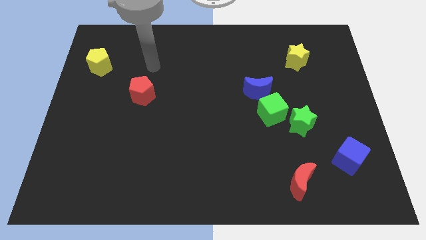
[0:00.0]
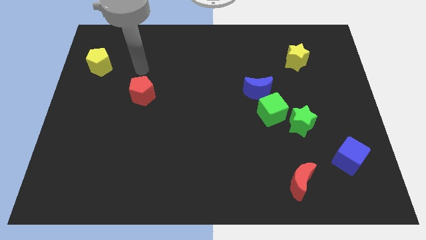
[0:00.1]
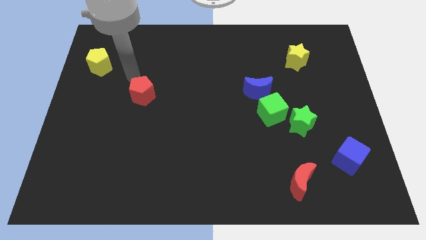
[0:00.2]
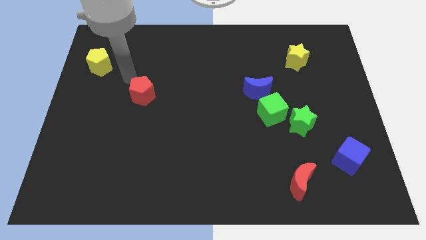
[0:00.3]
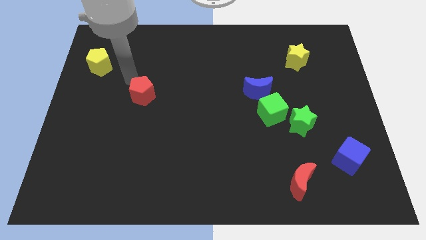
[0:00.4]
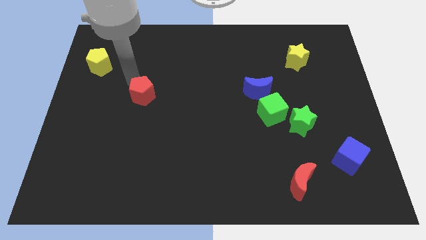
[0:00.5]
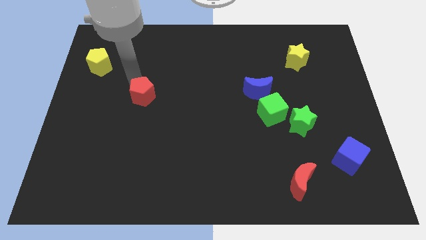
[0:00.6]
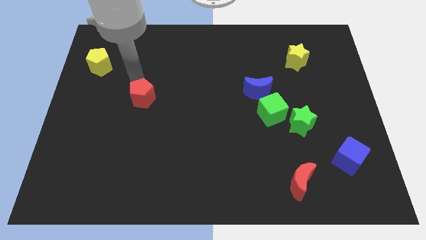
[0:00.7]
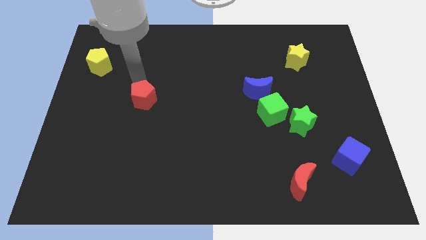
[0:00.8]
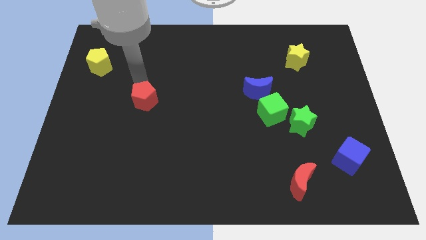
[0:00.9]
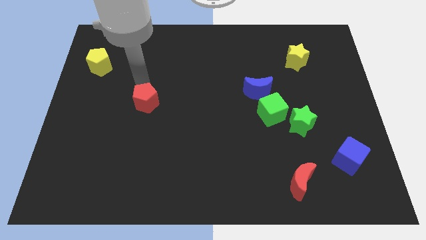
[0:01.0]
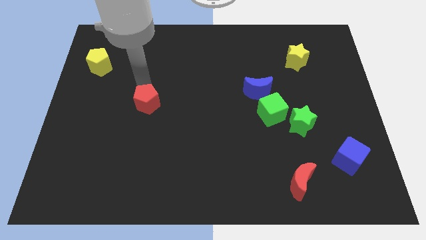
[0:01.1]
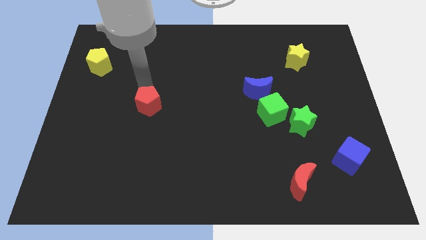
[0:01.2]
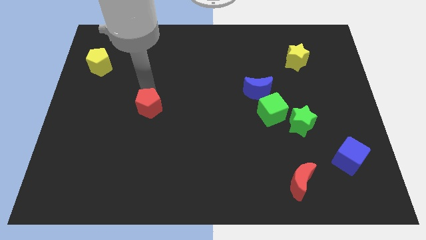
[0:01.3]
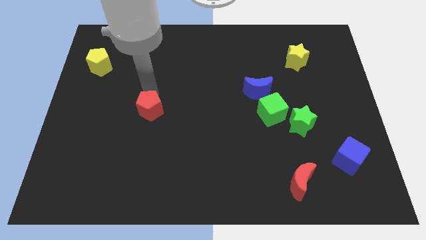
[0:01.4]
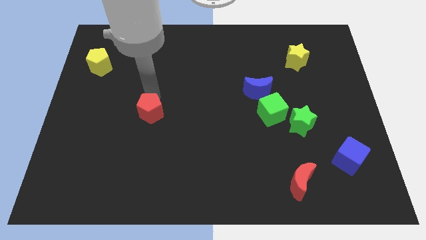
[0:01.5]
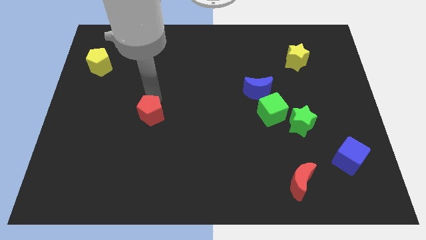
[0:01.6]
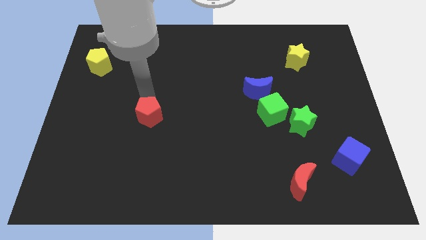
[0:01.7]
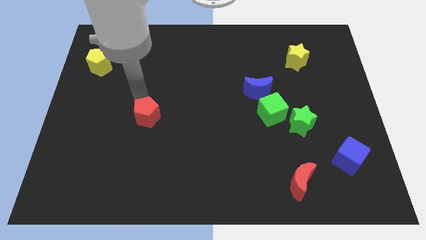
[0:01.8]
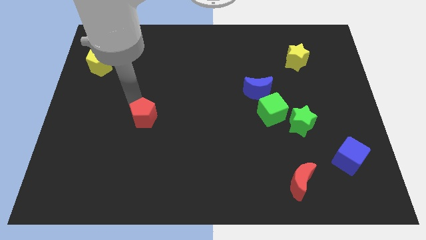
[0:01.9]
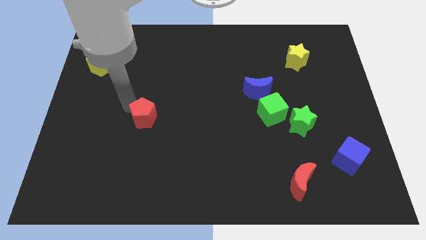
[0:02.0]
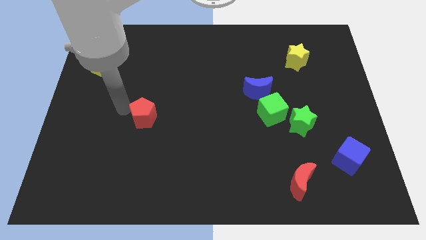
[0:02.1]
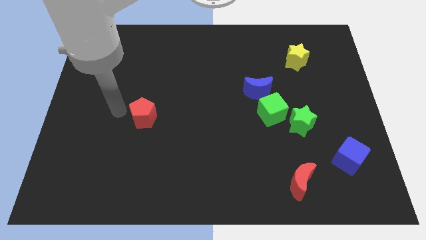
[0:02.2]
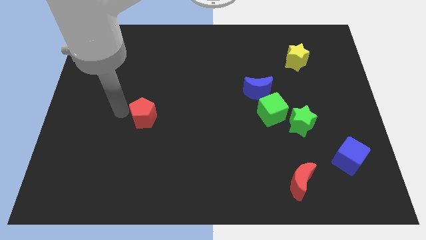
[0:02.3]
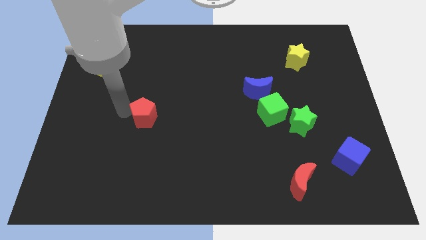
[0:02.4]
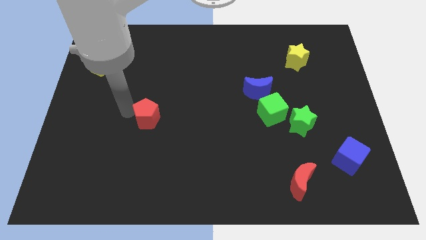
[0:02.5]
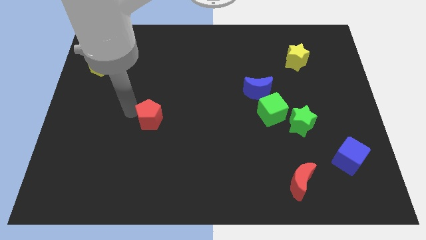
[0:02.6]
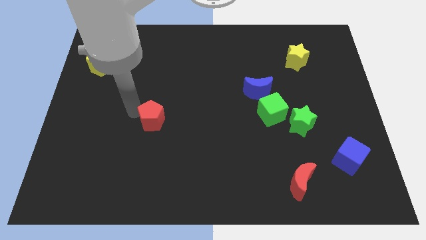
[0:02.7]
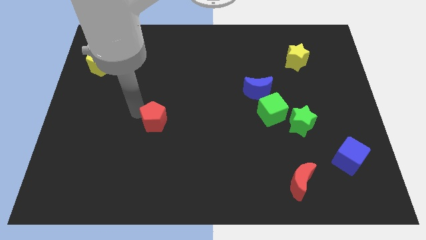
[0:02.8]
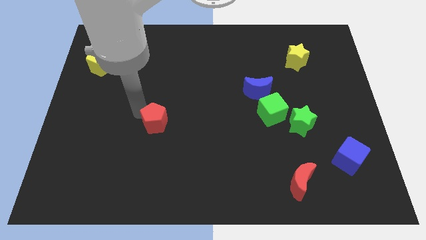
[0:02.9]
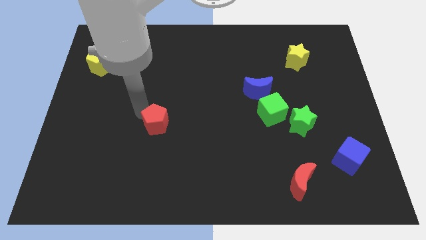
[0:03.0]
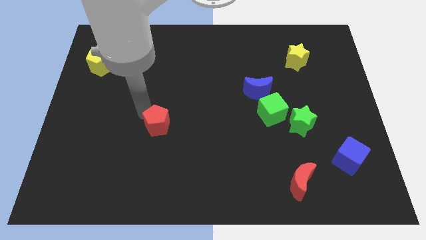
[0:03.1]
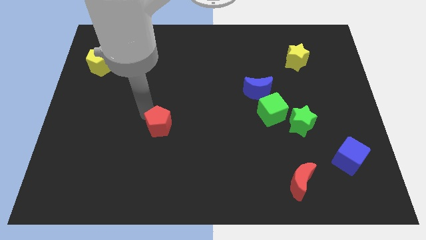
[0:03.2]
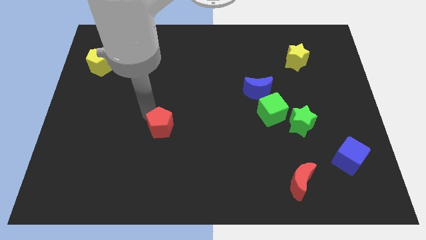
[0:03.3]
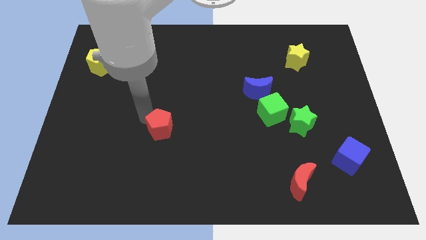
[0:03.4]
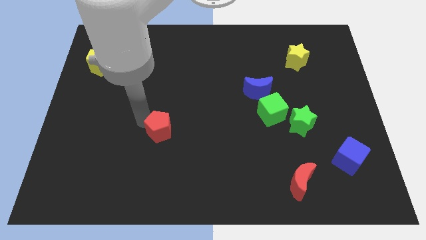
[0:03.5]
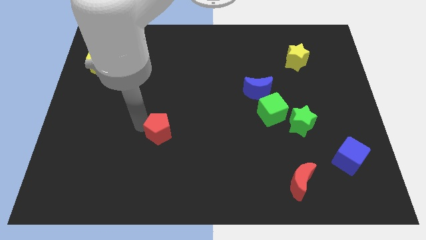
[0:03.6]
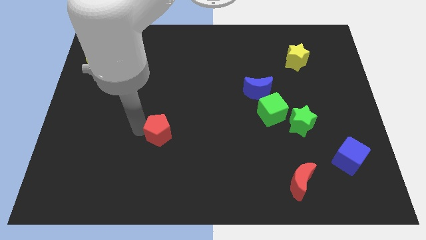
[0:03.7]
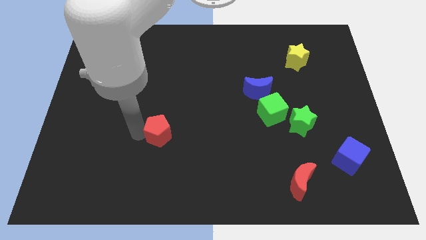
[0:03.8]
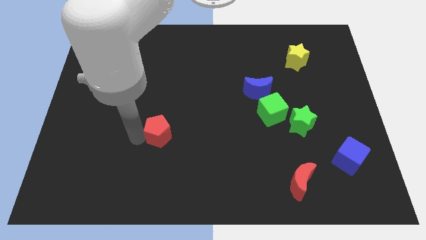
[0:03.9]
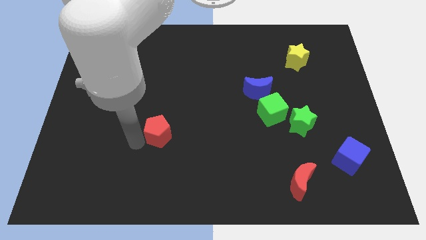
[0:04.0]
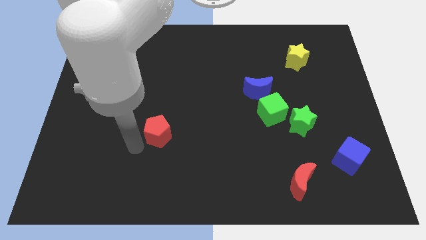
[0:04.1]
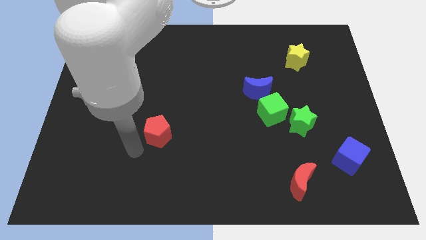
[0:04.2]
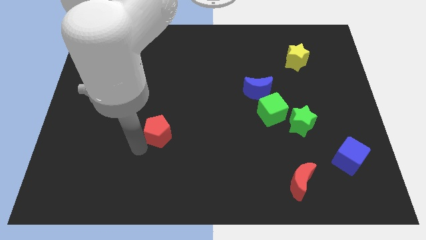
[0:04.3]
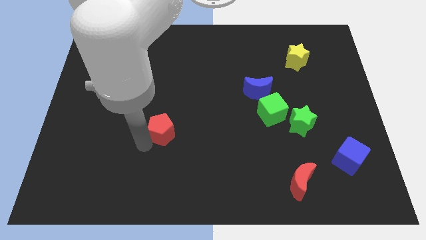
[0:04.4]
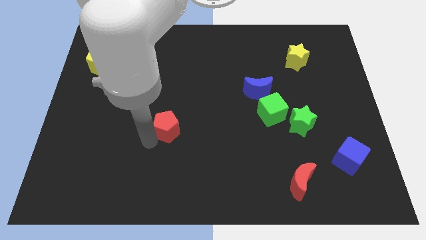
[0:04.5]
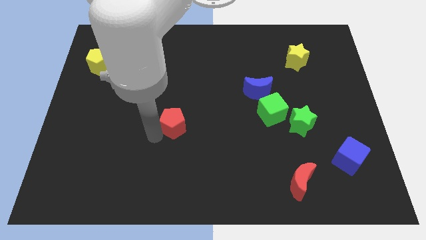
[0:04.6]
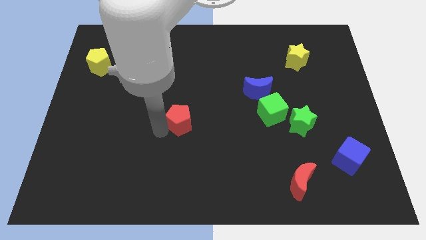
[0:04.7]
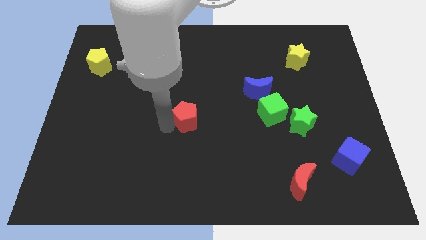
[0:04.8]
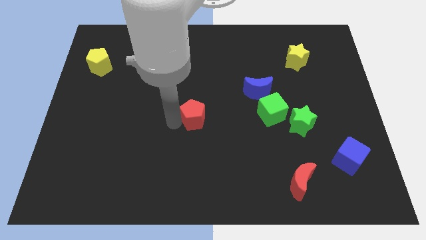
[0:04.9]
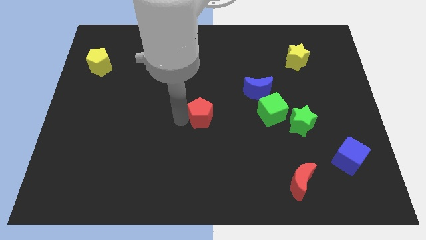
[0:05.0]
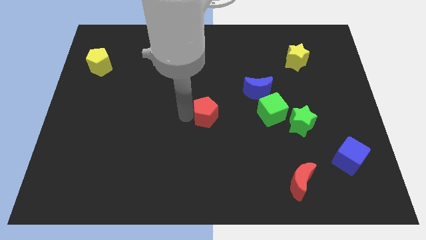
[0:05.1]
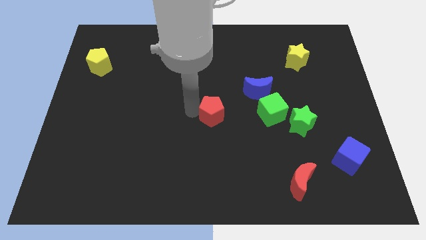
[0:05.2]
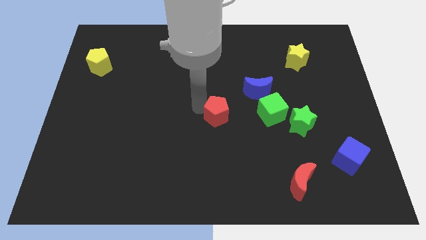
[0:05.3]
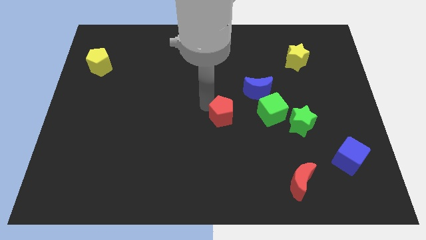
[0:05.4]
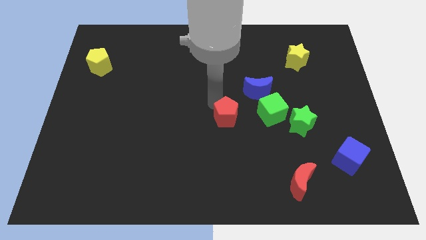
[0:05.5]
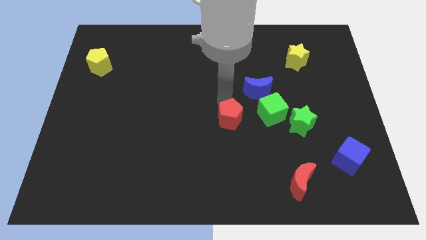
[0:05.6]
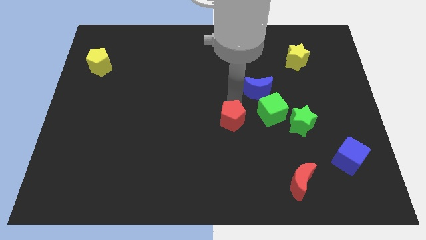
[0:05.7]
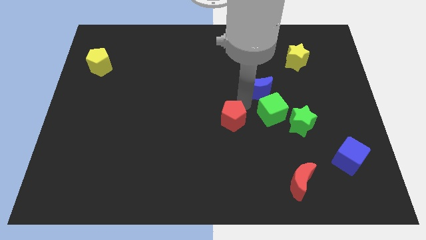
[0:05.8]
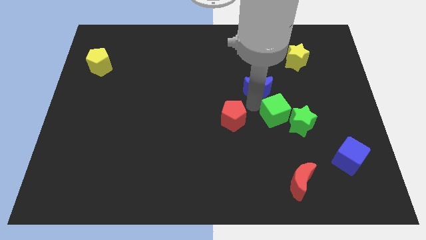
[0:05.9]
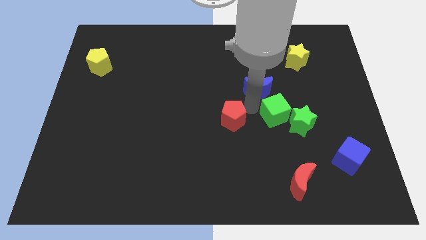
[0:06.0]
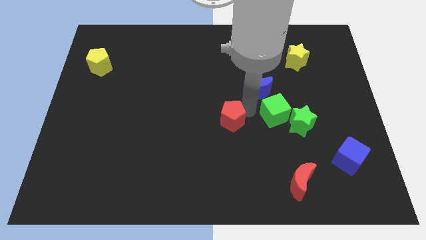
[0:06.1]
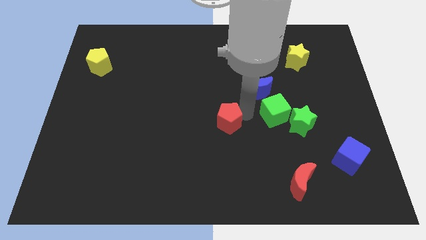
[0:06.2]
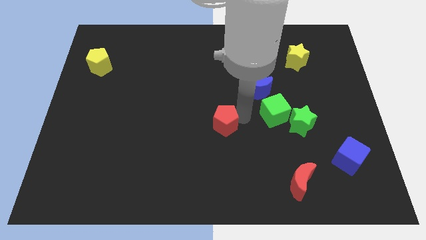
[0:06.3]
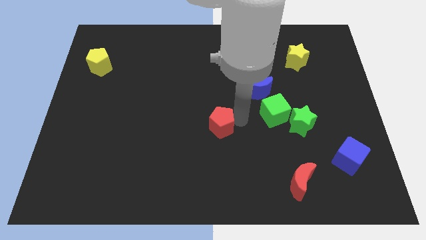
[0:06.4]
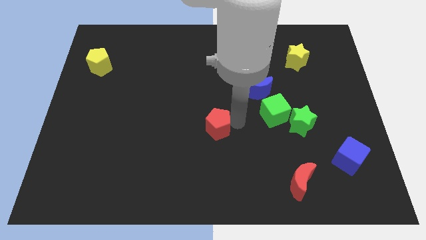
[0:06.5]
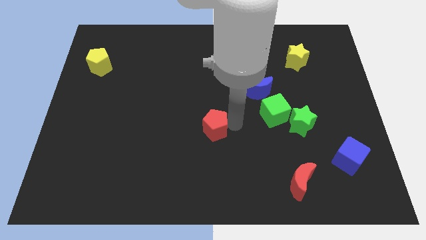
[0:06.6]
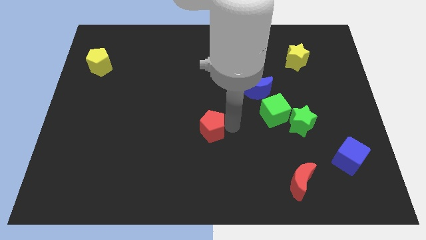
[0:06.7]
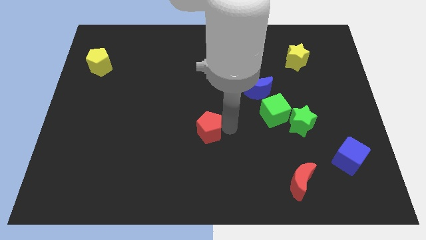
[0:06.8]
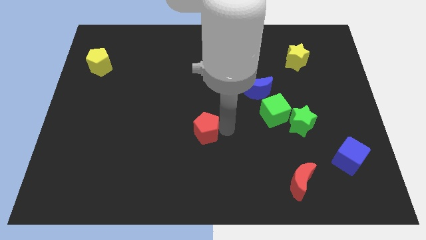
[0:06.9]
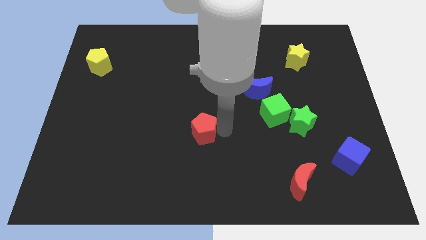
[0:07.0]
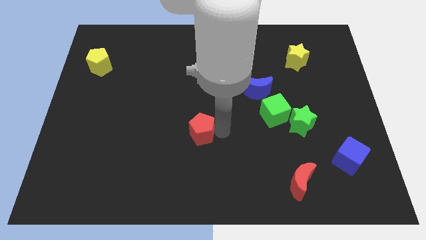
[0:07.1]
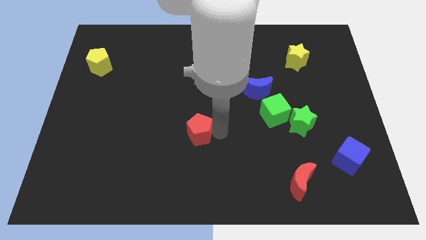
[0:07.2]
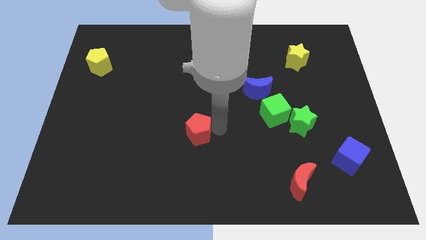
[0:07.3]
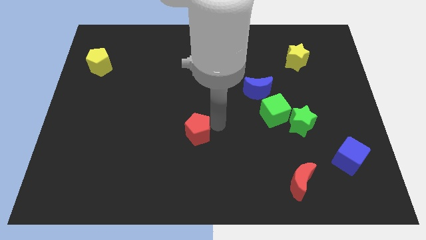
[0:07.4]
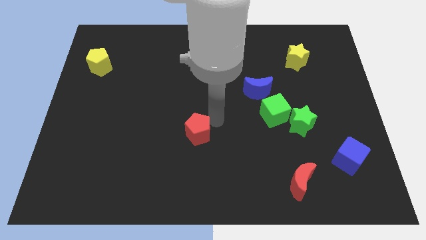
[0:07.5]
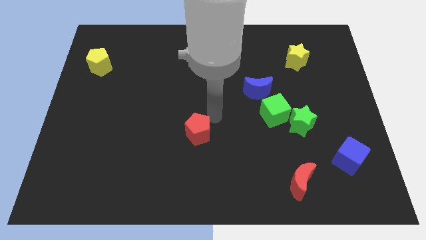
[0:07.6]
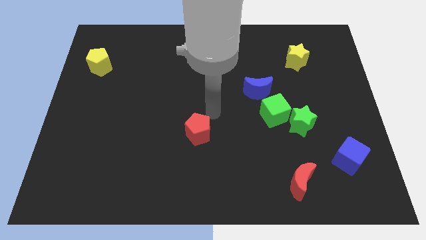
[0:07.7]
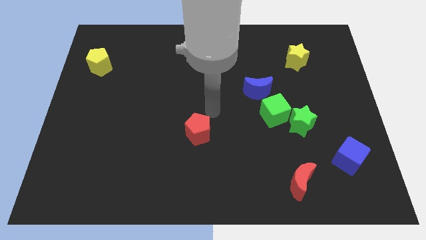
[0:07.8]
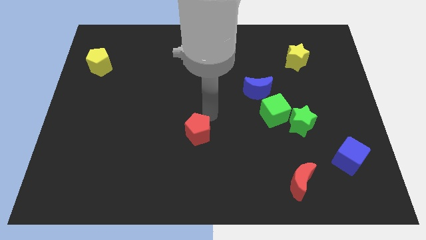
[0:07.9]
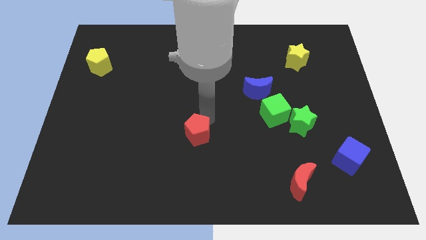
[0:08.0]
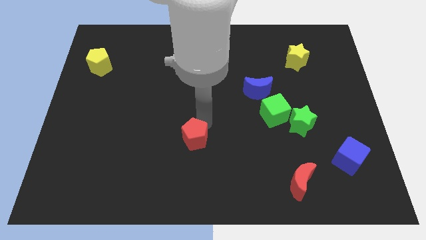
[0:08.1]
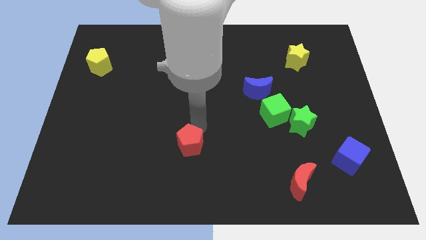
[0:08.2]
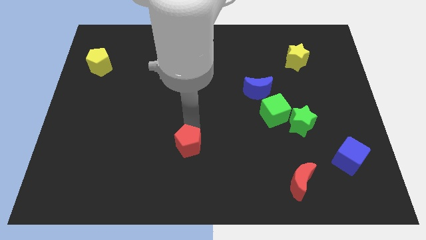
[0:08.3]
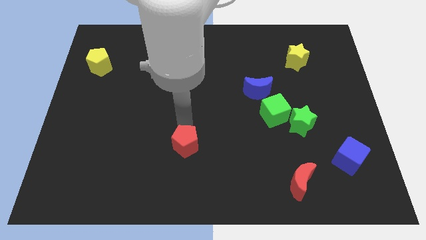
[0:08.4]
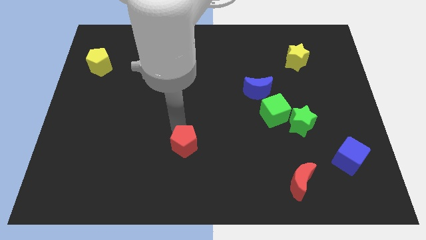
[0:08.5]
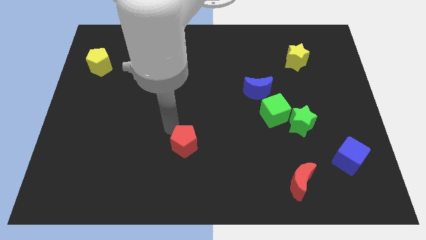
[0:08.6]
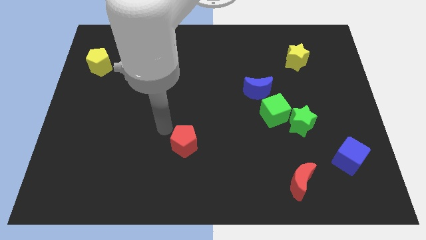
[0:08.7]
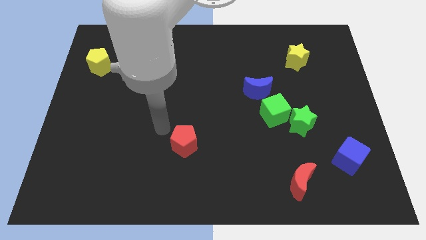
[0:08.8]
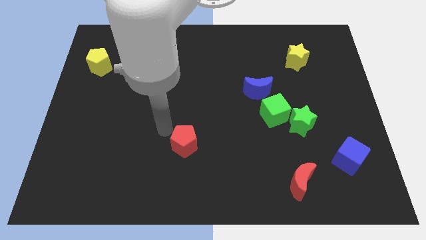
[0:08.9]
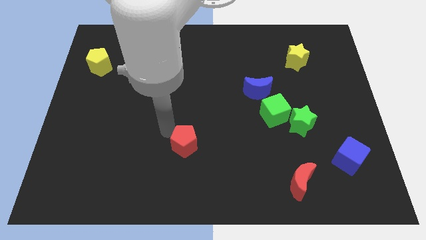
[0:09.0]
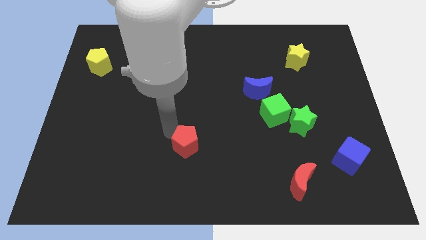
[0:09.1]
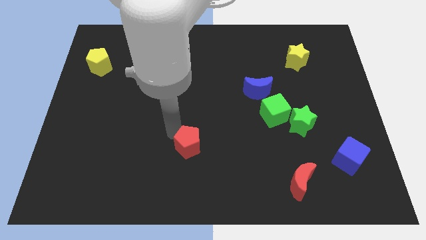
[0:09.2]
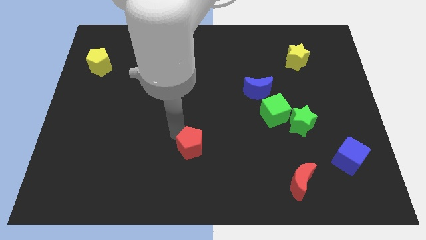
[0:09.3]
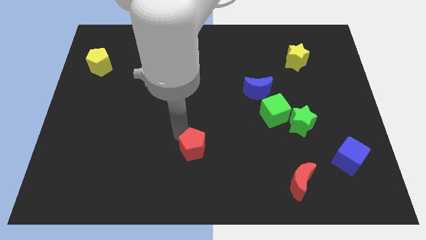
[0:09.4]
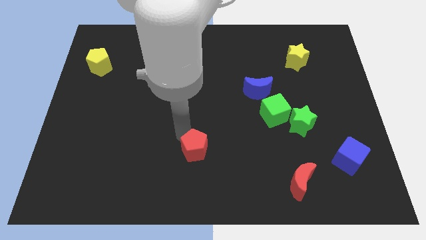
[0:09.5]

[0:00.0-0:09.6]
push the red pentagon downwards and to the right
